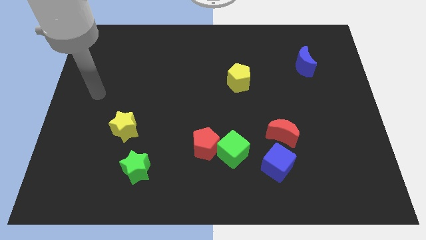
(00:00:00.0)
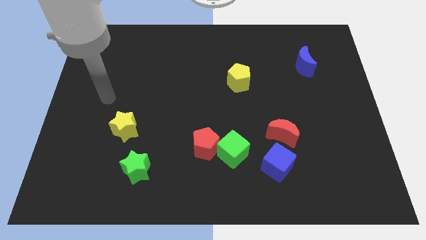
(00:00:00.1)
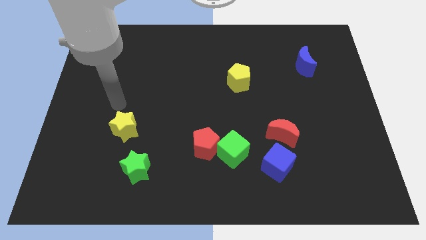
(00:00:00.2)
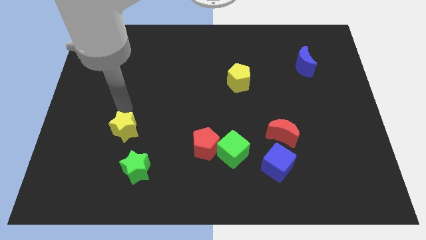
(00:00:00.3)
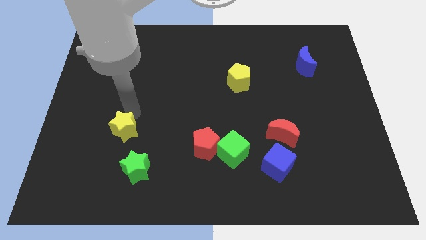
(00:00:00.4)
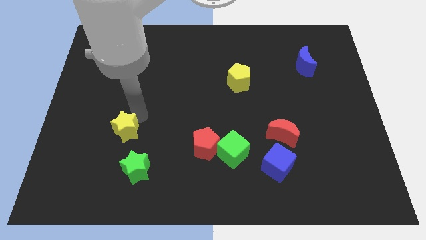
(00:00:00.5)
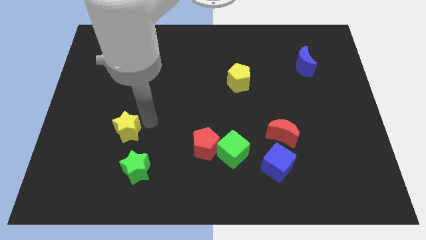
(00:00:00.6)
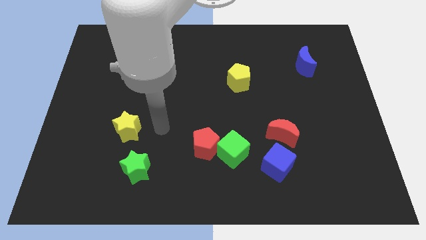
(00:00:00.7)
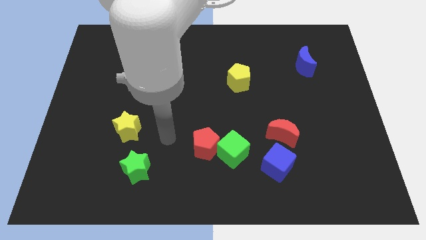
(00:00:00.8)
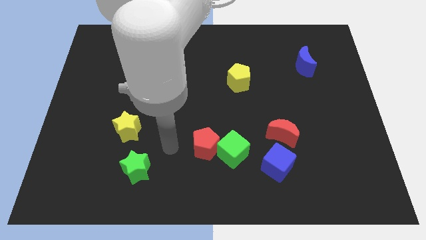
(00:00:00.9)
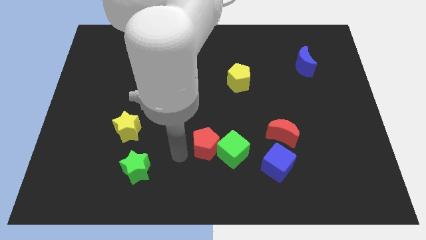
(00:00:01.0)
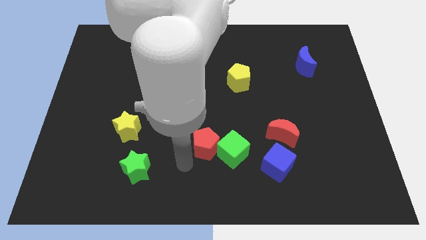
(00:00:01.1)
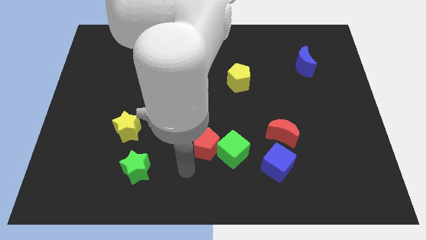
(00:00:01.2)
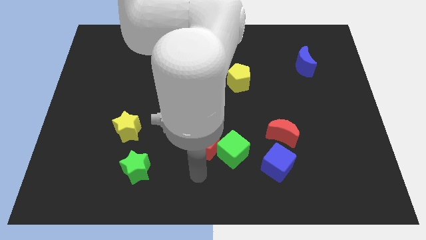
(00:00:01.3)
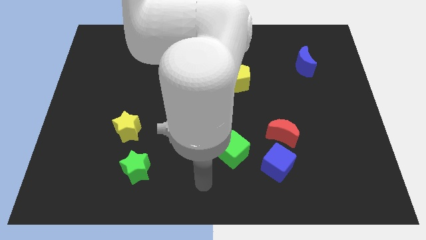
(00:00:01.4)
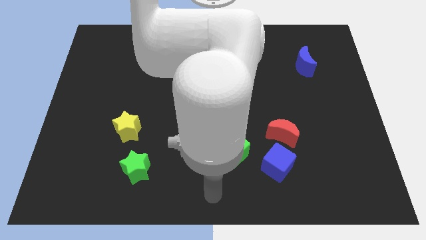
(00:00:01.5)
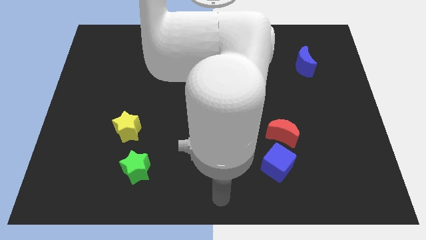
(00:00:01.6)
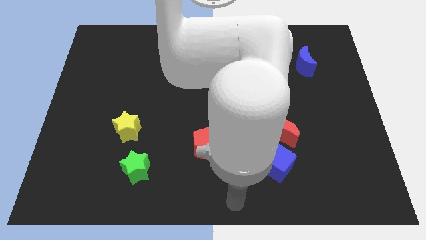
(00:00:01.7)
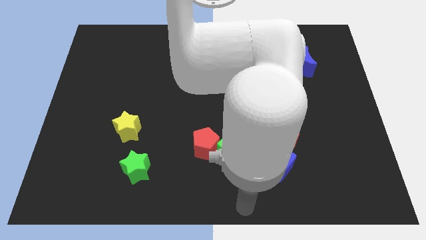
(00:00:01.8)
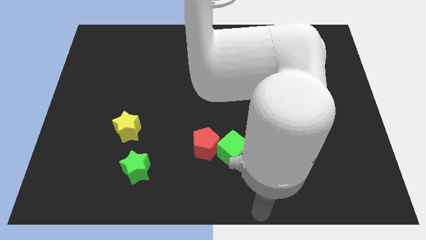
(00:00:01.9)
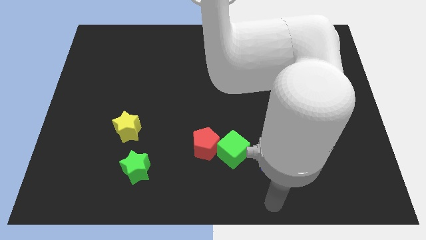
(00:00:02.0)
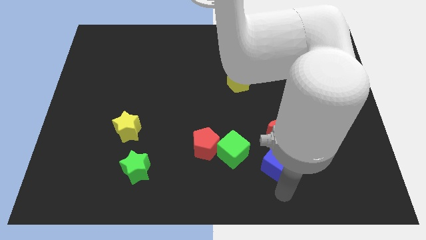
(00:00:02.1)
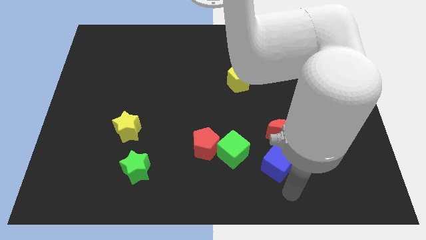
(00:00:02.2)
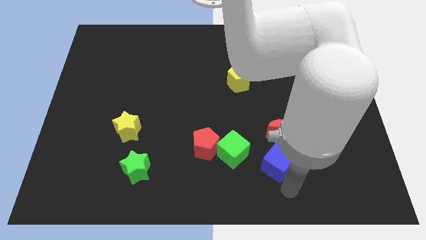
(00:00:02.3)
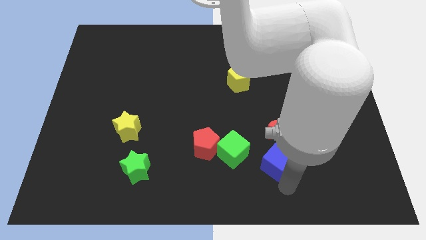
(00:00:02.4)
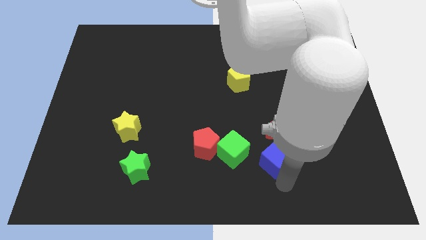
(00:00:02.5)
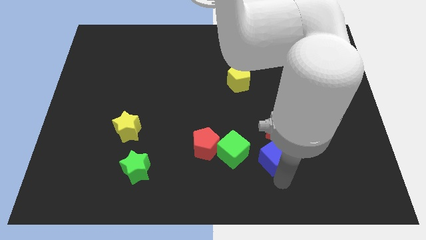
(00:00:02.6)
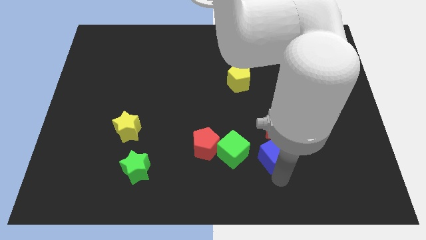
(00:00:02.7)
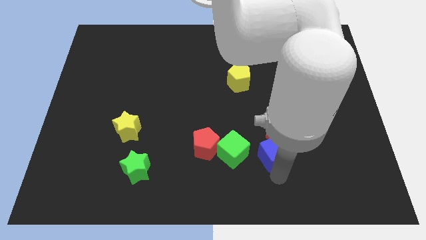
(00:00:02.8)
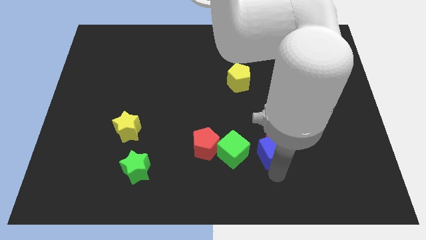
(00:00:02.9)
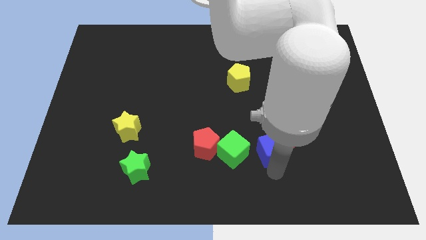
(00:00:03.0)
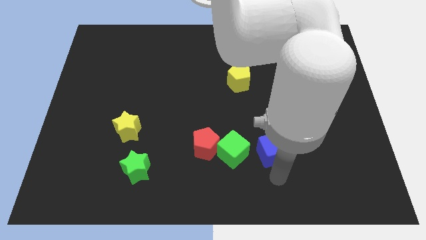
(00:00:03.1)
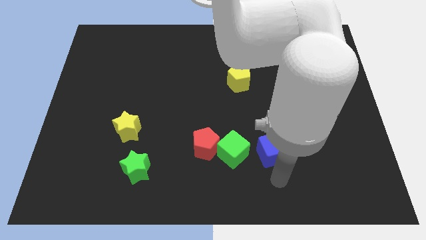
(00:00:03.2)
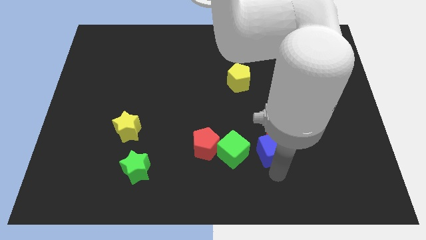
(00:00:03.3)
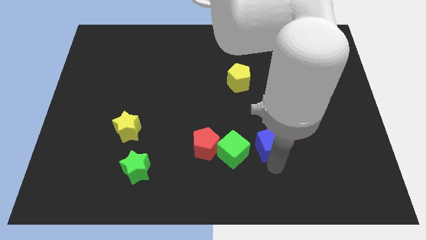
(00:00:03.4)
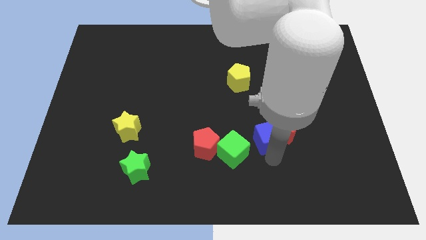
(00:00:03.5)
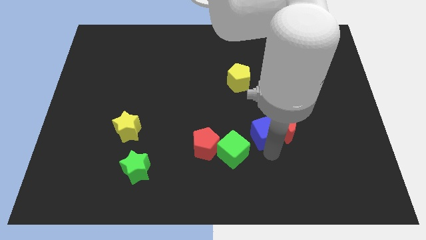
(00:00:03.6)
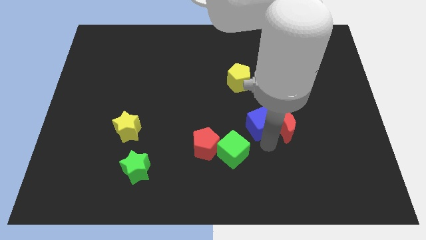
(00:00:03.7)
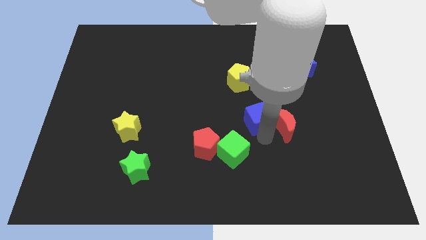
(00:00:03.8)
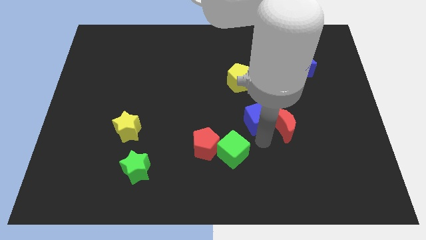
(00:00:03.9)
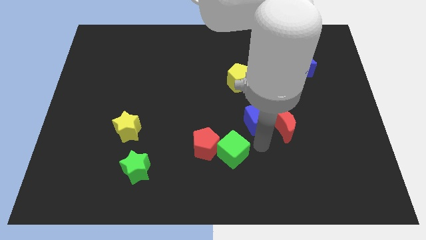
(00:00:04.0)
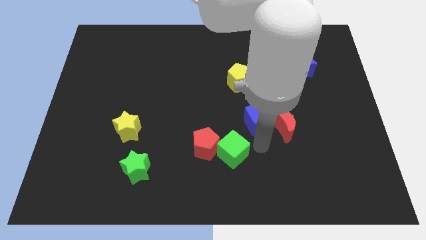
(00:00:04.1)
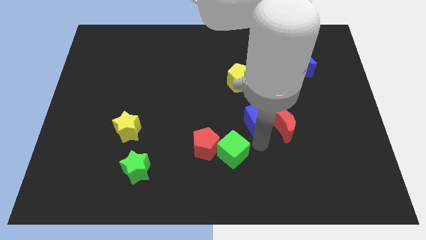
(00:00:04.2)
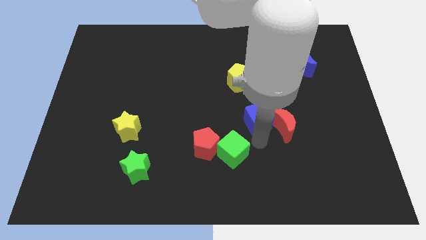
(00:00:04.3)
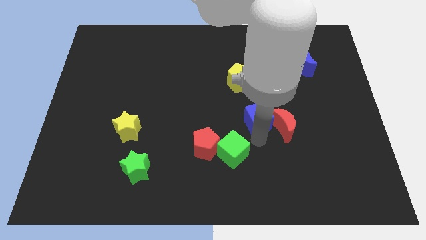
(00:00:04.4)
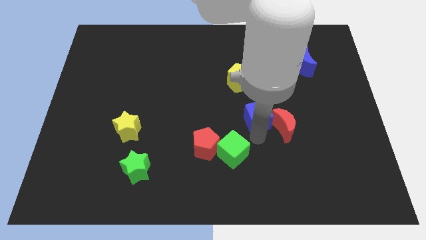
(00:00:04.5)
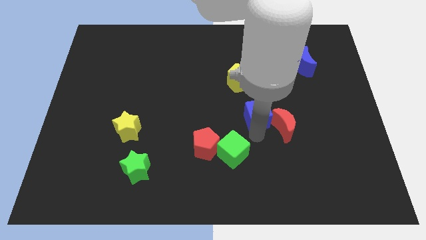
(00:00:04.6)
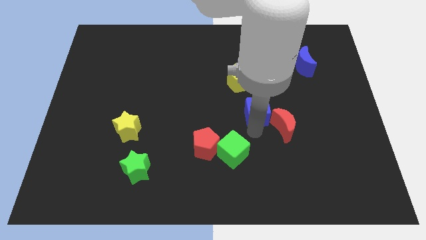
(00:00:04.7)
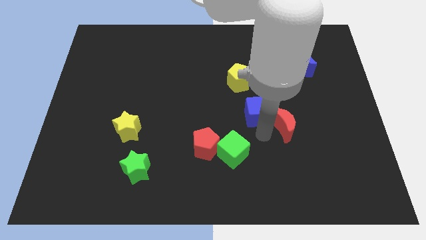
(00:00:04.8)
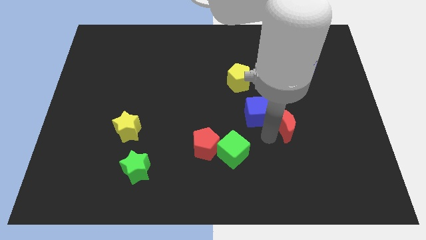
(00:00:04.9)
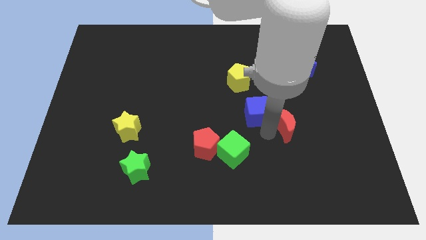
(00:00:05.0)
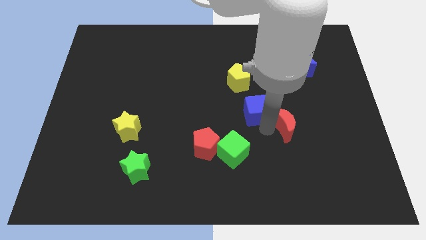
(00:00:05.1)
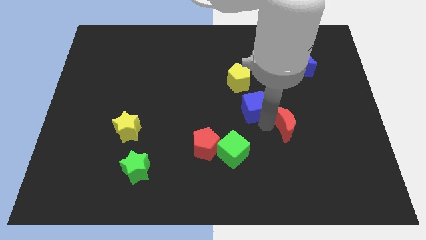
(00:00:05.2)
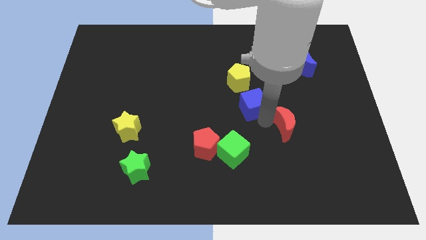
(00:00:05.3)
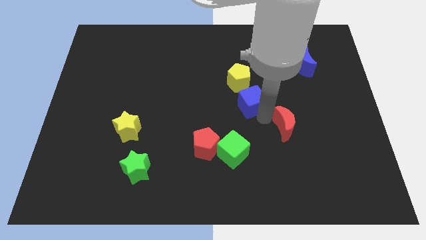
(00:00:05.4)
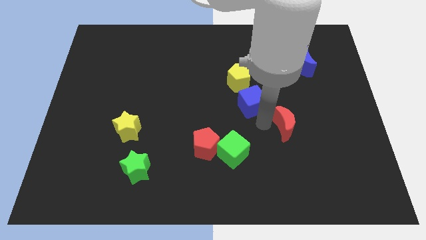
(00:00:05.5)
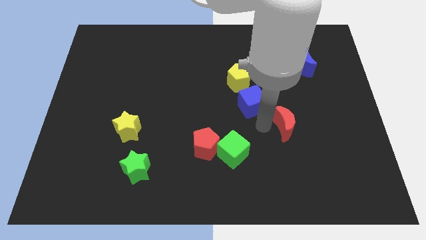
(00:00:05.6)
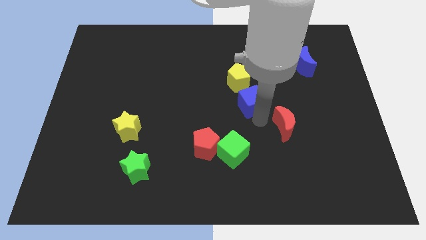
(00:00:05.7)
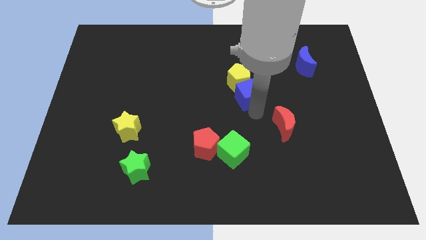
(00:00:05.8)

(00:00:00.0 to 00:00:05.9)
slide the blue cube next to the yellow pentagon

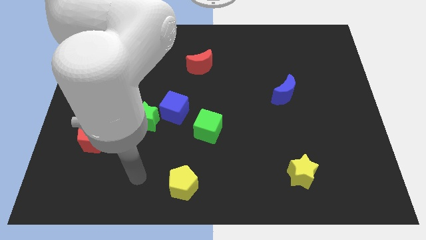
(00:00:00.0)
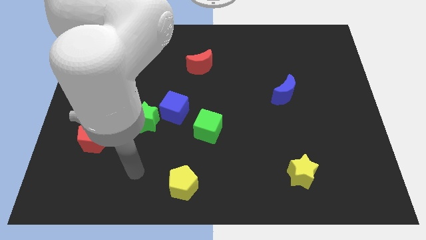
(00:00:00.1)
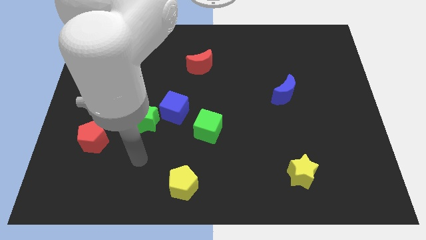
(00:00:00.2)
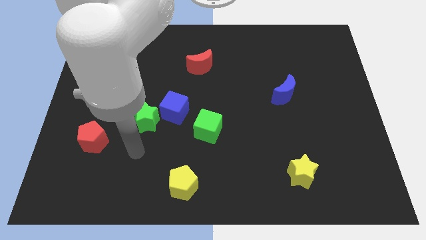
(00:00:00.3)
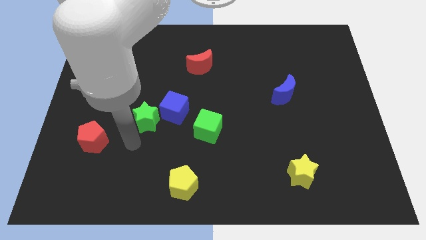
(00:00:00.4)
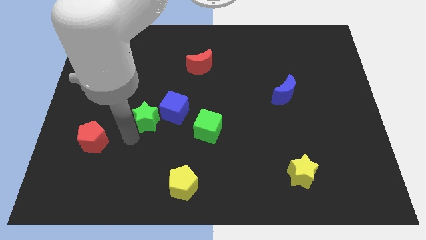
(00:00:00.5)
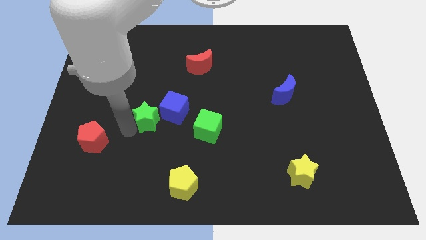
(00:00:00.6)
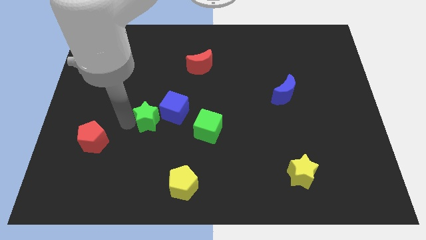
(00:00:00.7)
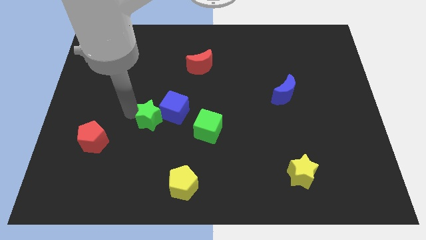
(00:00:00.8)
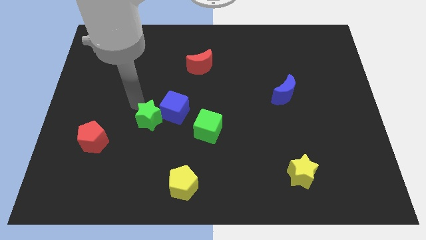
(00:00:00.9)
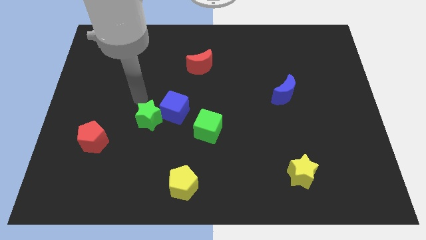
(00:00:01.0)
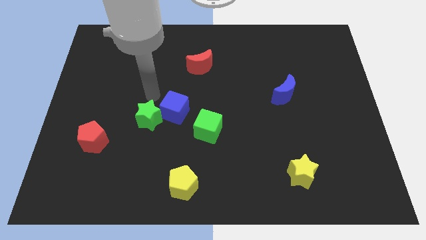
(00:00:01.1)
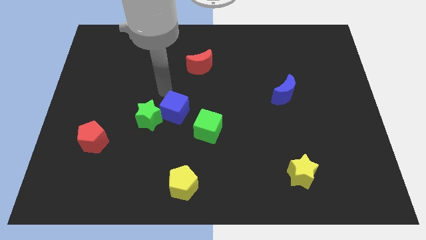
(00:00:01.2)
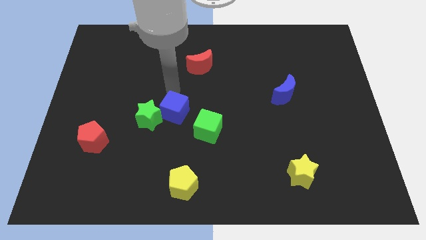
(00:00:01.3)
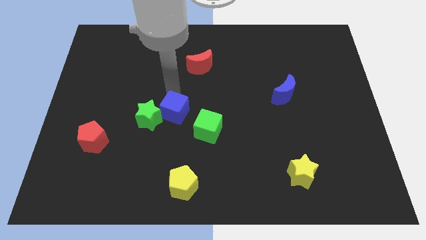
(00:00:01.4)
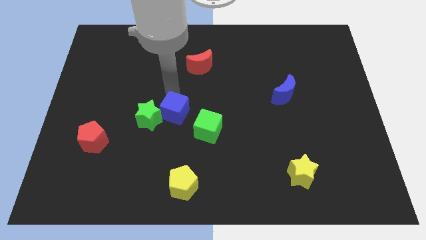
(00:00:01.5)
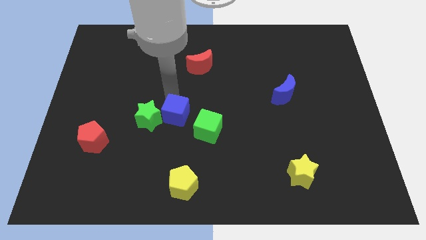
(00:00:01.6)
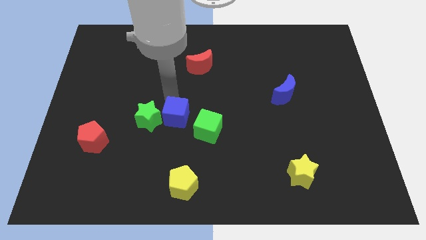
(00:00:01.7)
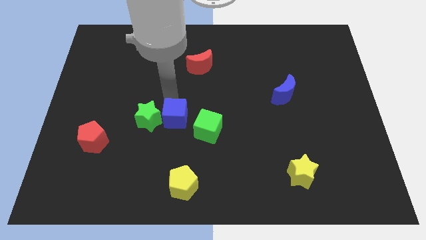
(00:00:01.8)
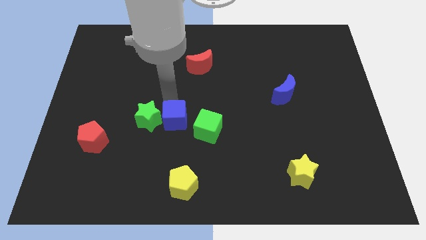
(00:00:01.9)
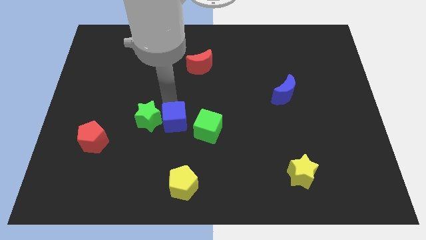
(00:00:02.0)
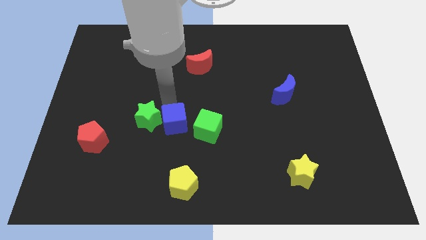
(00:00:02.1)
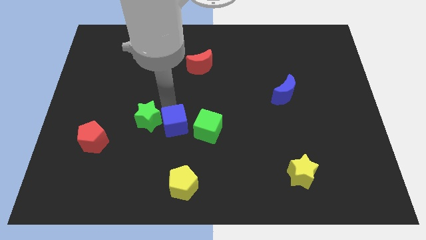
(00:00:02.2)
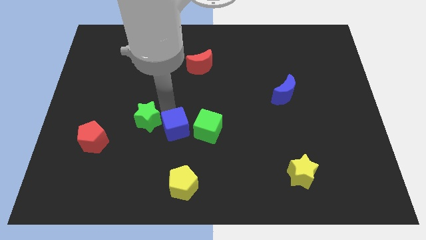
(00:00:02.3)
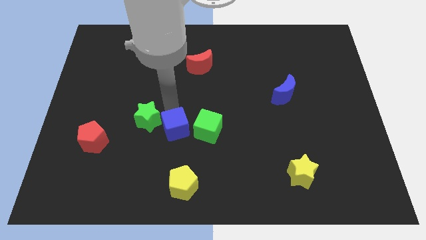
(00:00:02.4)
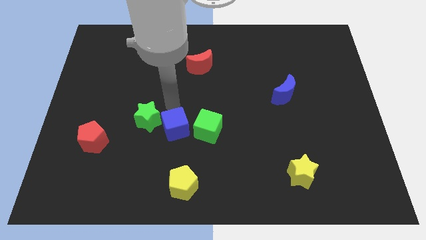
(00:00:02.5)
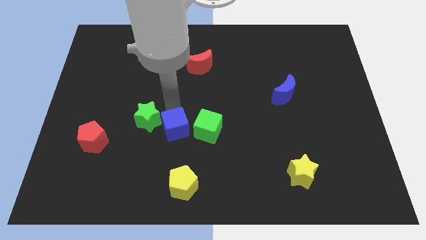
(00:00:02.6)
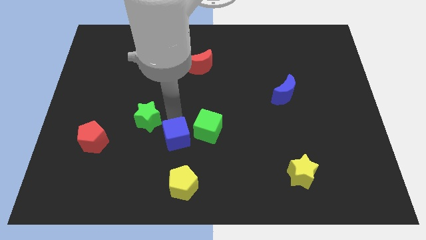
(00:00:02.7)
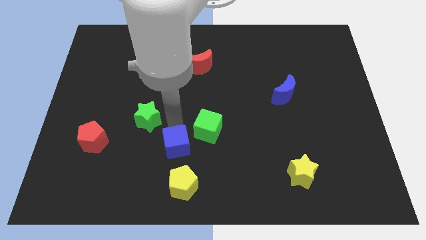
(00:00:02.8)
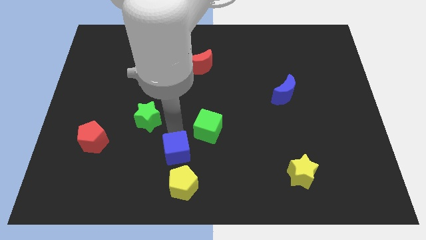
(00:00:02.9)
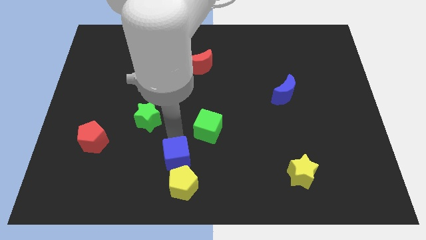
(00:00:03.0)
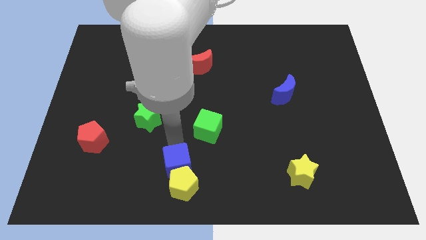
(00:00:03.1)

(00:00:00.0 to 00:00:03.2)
move the blue cube close to the yellow pentagon
